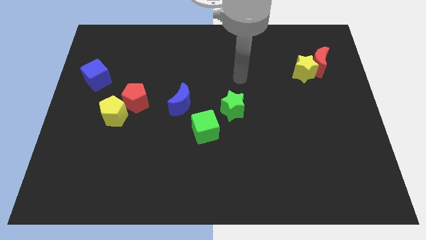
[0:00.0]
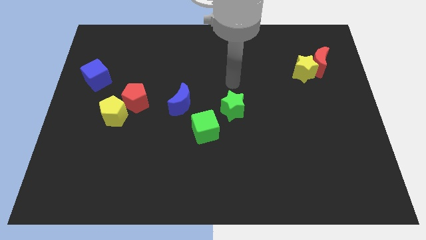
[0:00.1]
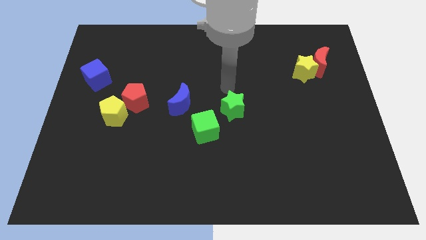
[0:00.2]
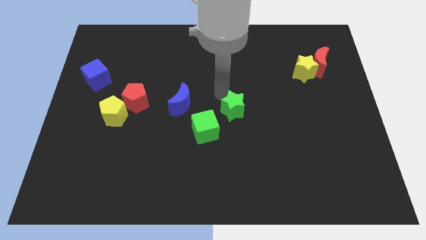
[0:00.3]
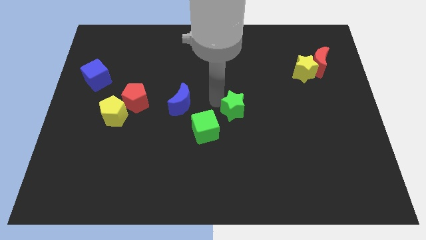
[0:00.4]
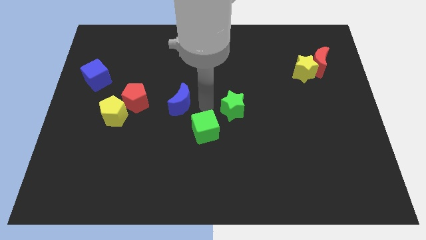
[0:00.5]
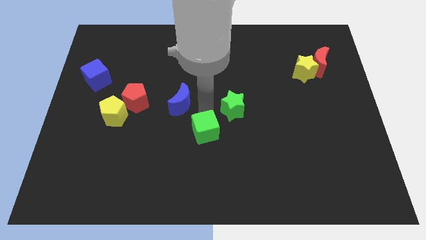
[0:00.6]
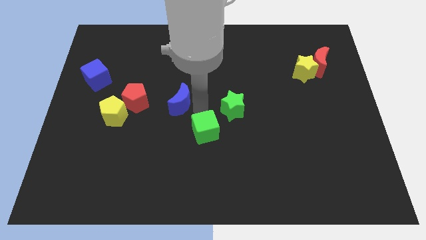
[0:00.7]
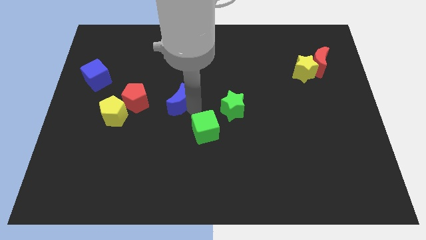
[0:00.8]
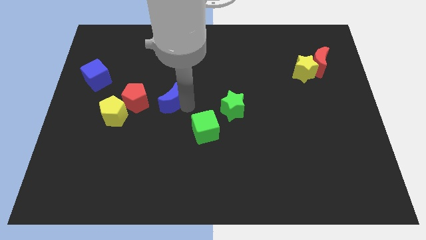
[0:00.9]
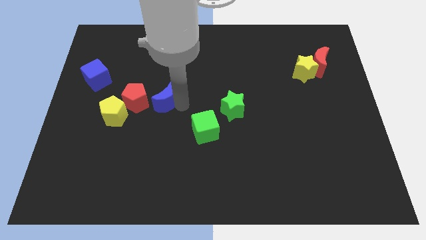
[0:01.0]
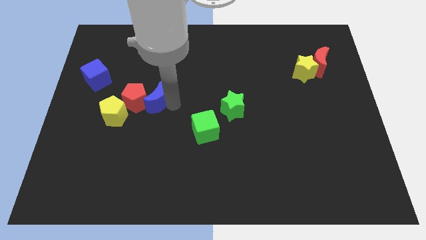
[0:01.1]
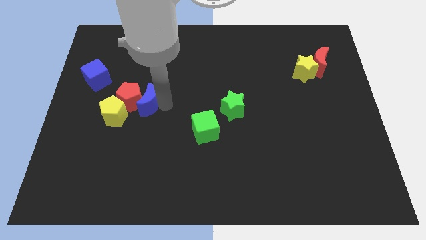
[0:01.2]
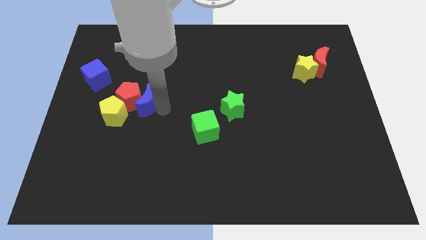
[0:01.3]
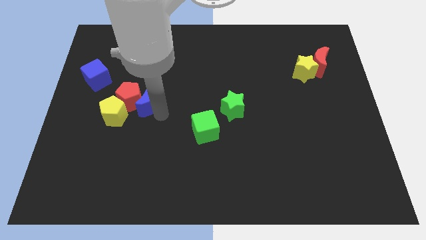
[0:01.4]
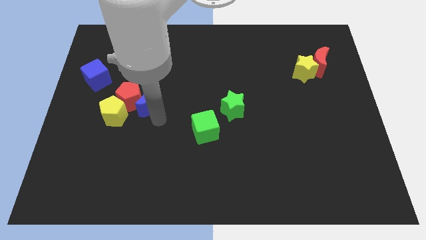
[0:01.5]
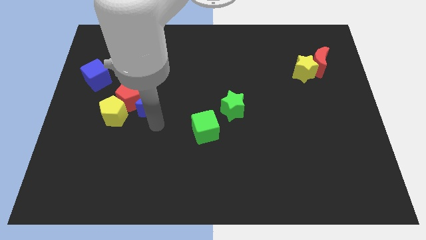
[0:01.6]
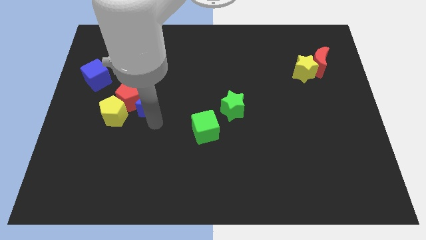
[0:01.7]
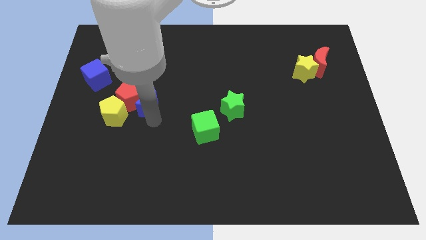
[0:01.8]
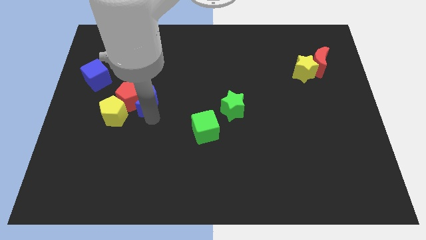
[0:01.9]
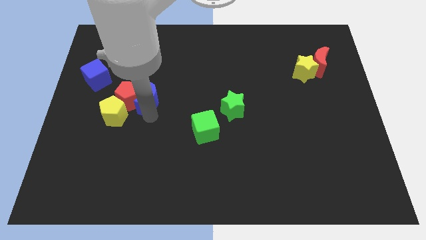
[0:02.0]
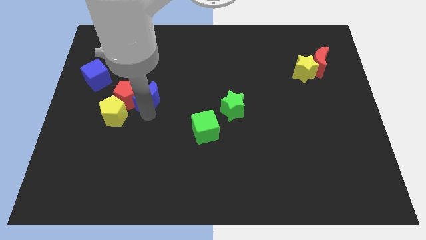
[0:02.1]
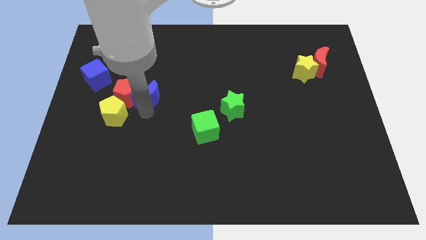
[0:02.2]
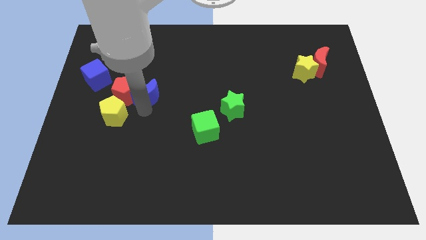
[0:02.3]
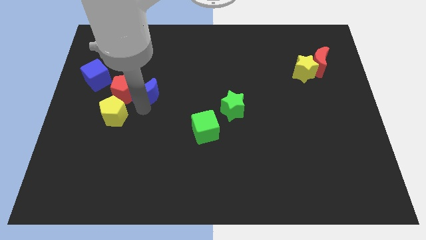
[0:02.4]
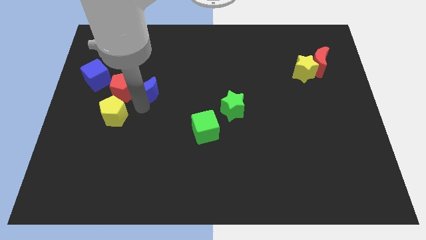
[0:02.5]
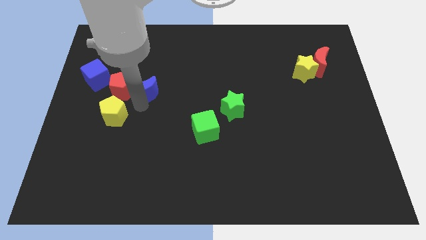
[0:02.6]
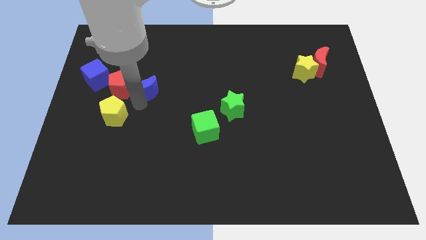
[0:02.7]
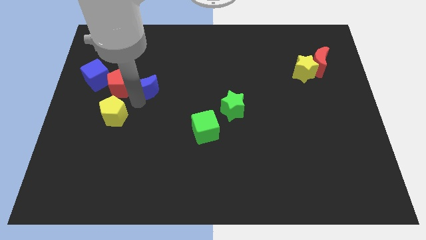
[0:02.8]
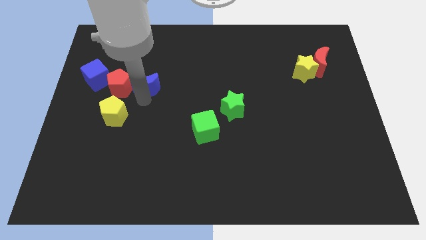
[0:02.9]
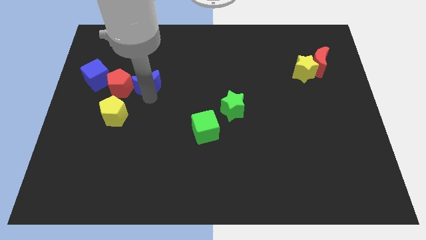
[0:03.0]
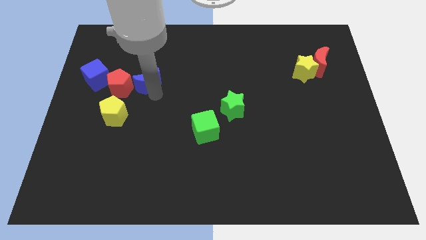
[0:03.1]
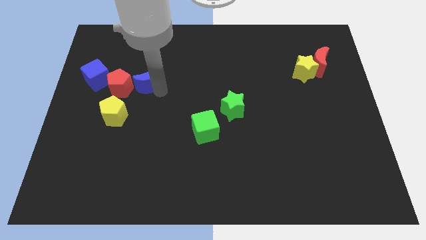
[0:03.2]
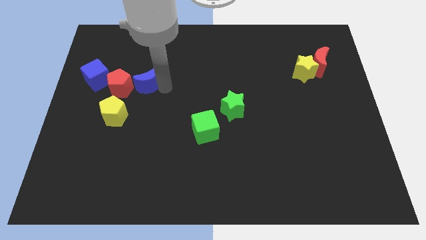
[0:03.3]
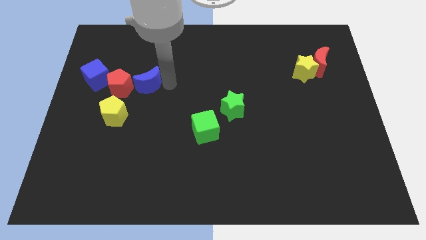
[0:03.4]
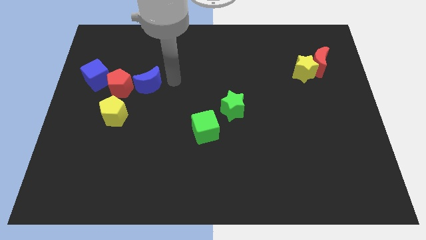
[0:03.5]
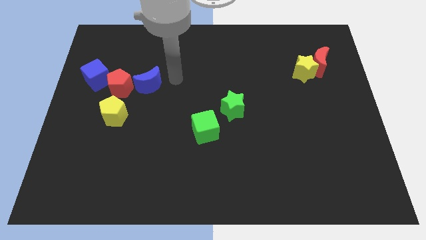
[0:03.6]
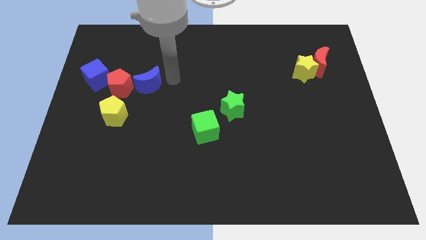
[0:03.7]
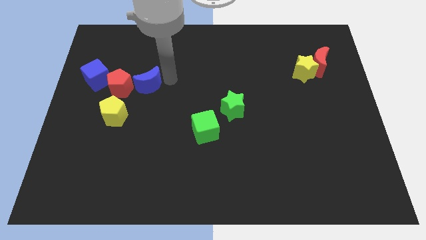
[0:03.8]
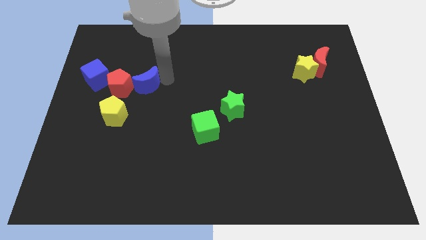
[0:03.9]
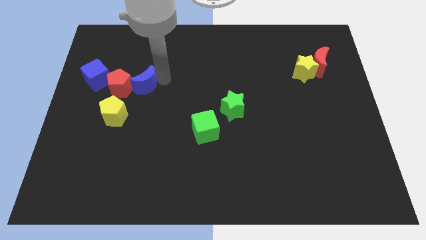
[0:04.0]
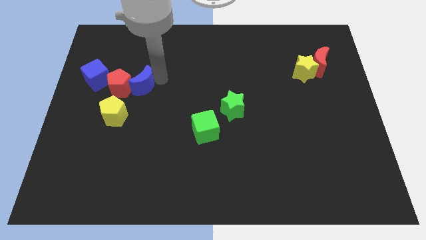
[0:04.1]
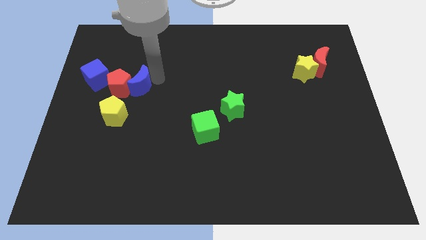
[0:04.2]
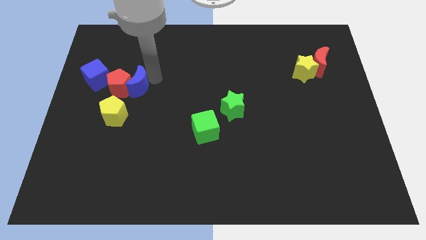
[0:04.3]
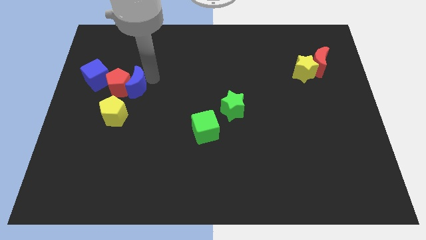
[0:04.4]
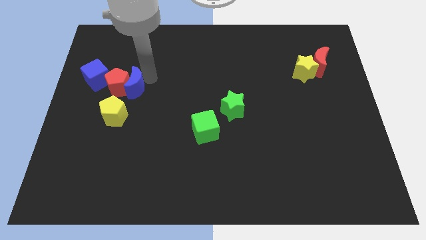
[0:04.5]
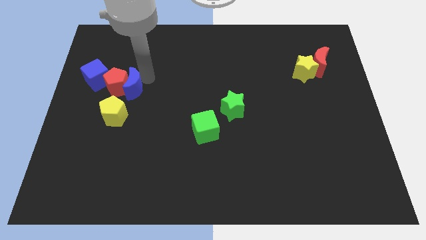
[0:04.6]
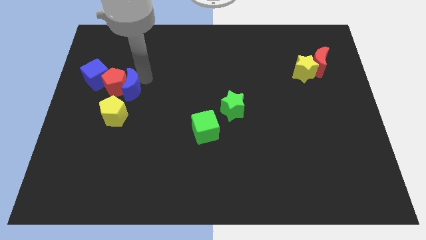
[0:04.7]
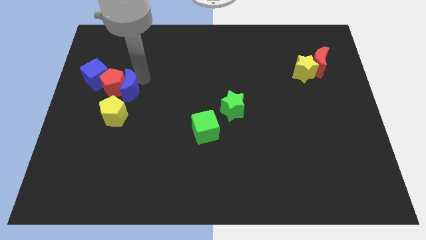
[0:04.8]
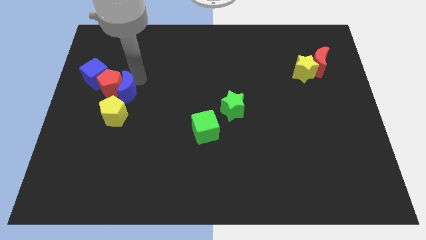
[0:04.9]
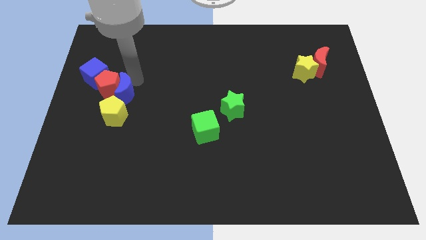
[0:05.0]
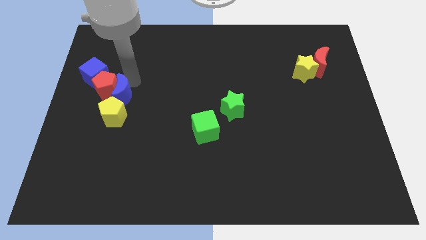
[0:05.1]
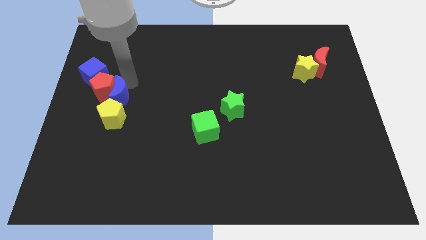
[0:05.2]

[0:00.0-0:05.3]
move the blue moon diagonally up and to the left of the yellow pentagon

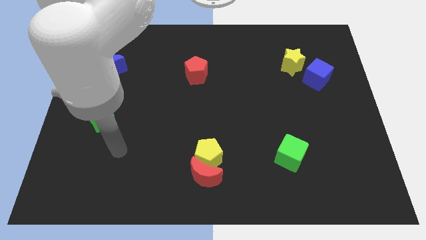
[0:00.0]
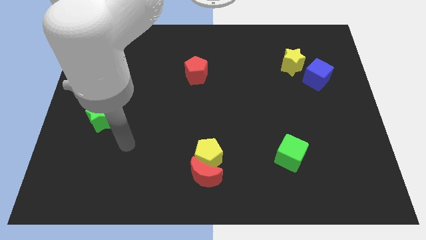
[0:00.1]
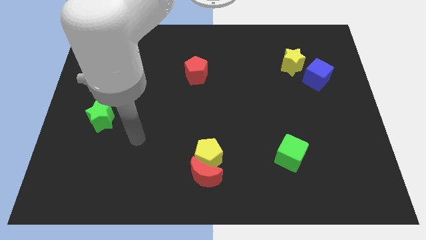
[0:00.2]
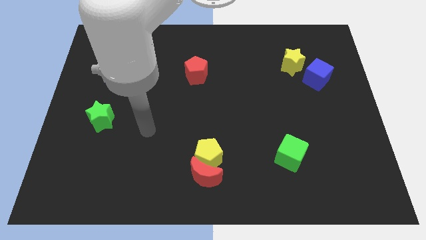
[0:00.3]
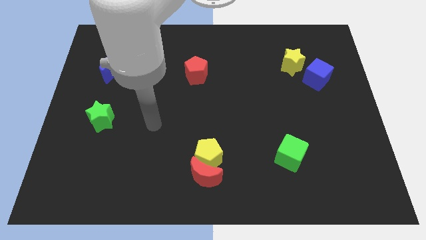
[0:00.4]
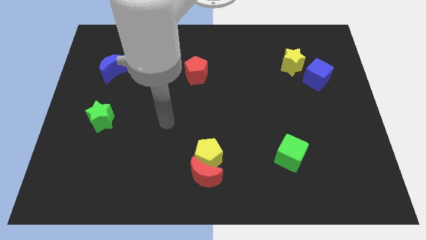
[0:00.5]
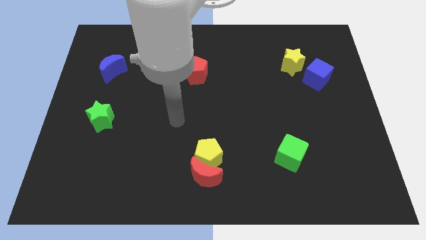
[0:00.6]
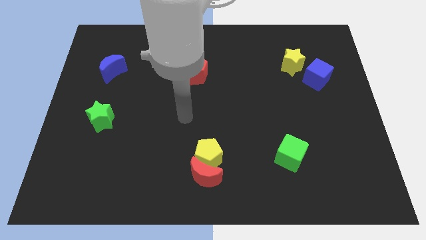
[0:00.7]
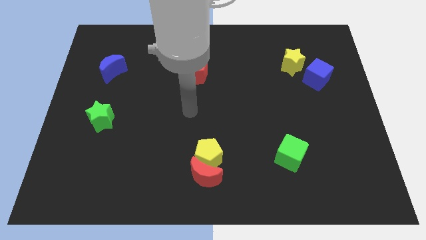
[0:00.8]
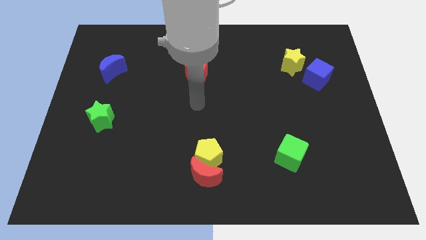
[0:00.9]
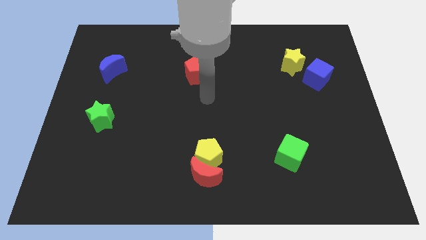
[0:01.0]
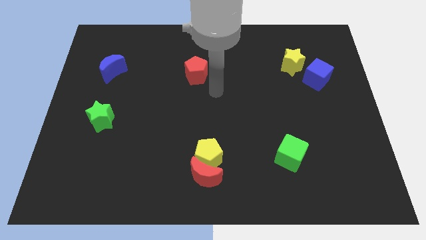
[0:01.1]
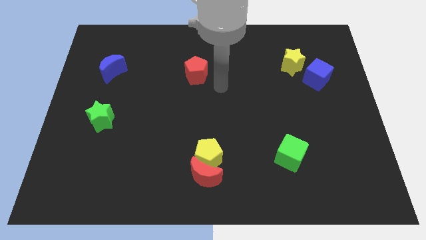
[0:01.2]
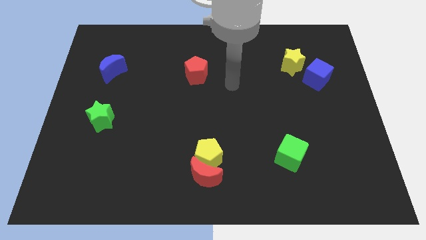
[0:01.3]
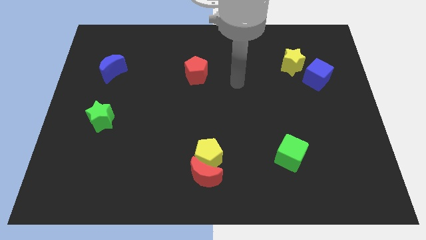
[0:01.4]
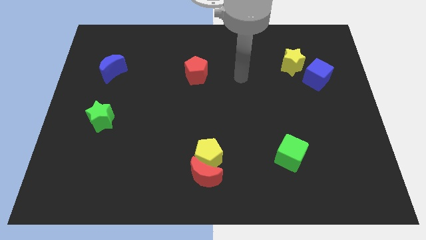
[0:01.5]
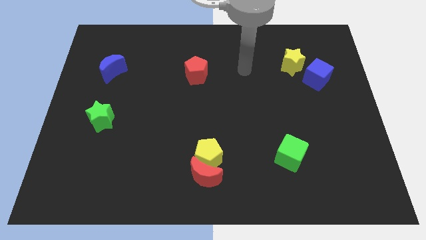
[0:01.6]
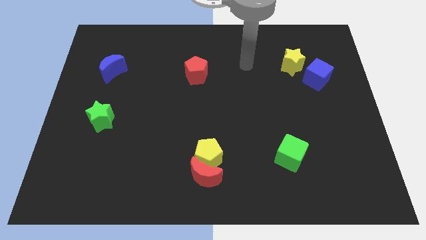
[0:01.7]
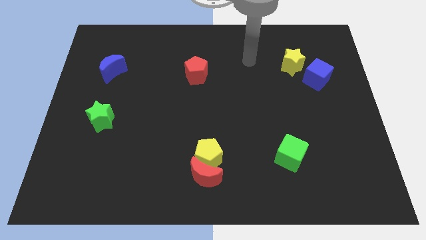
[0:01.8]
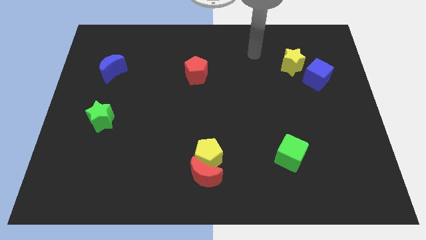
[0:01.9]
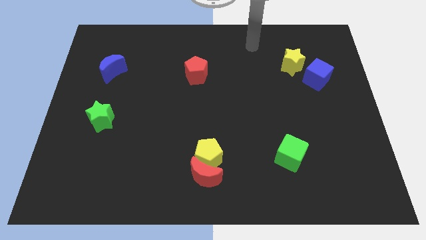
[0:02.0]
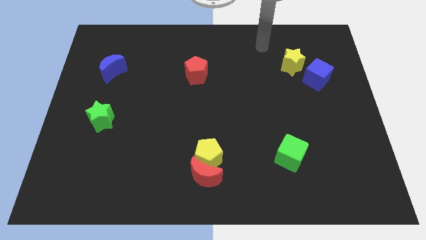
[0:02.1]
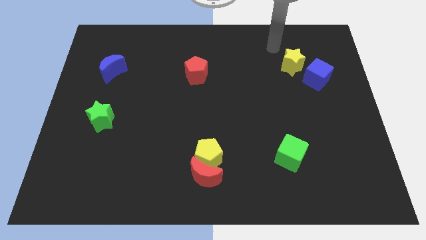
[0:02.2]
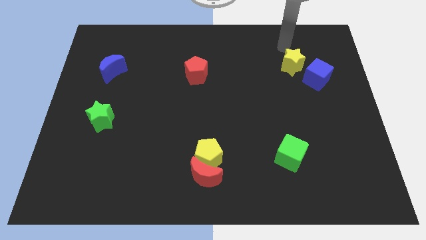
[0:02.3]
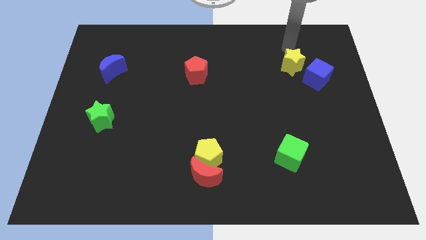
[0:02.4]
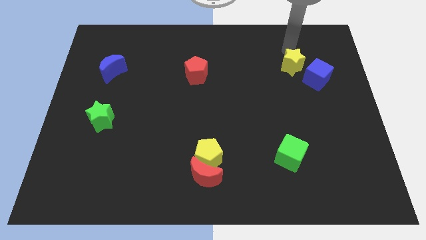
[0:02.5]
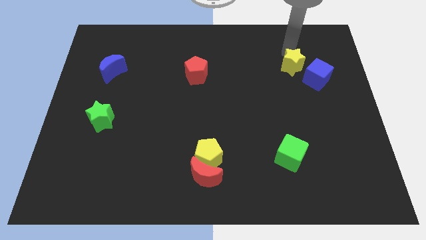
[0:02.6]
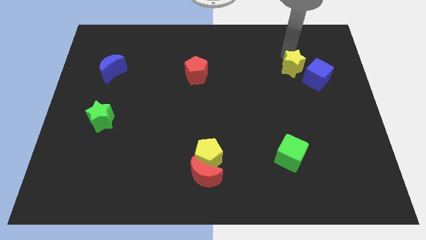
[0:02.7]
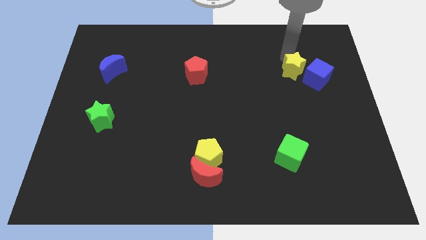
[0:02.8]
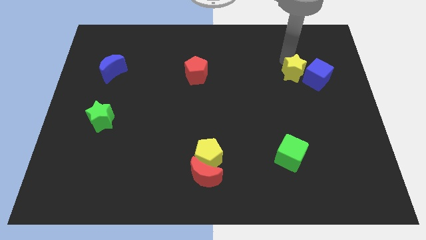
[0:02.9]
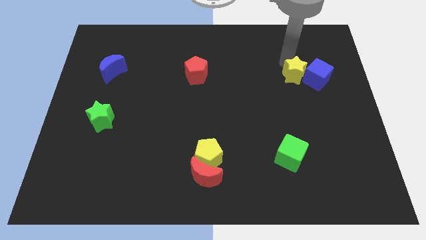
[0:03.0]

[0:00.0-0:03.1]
move the yellow star diagonally down and to the left of the blue cube
